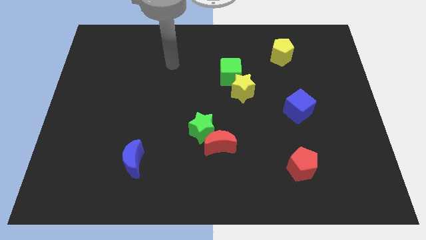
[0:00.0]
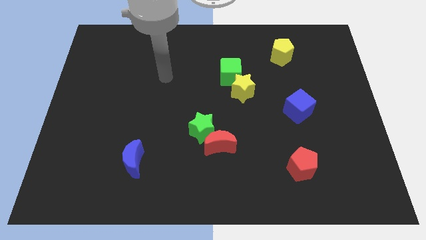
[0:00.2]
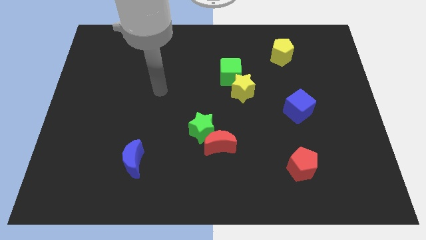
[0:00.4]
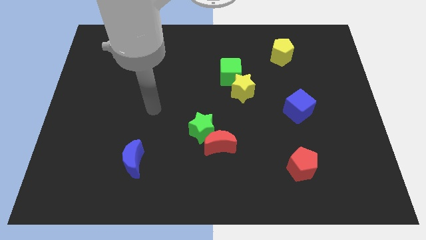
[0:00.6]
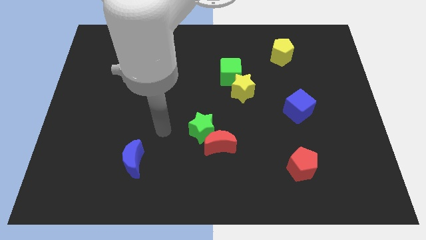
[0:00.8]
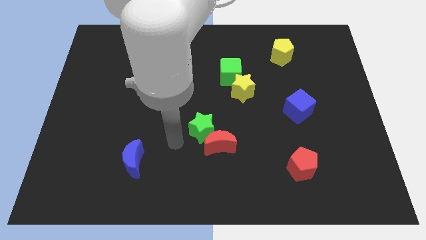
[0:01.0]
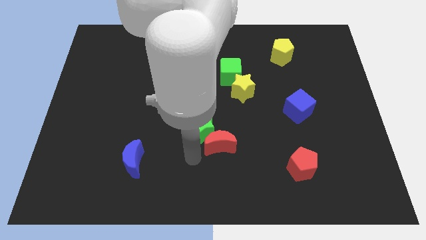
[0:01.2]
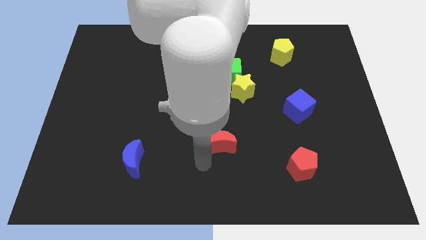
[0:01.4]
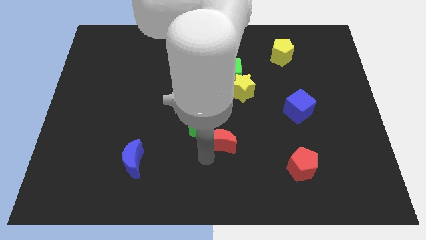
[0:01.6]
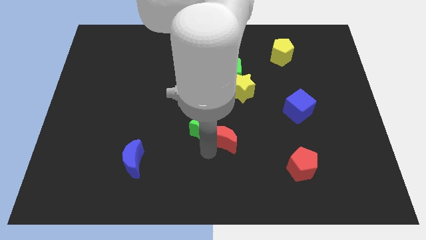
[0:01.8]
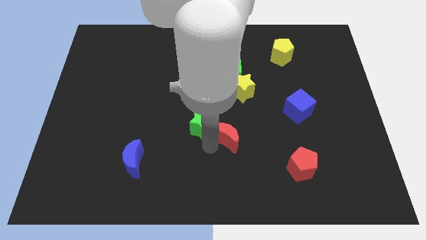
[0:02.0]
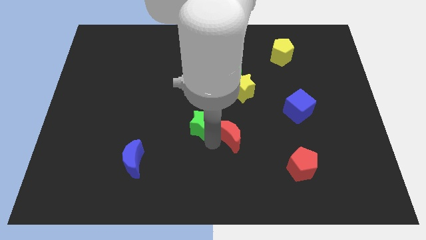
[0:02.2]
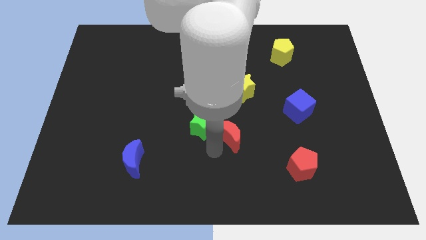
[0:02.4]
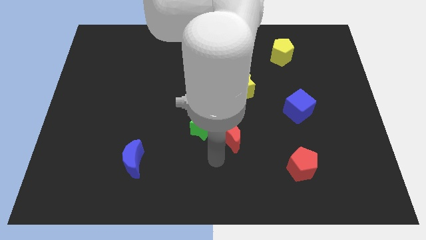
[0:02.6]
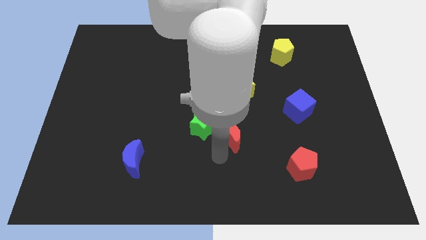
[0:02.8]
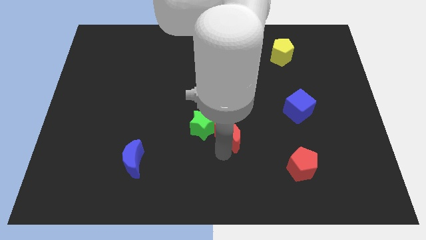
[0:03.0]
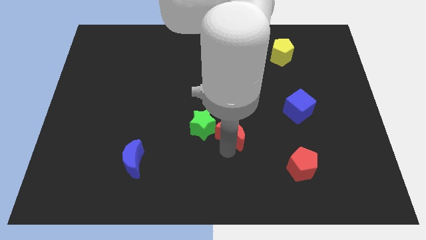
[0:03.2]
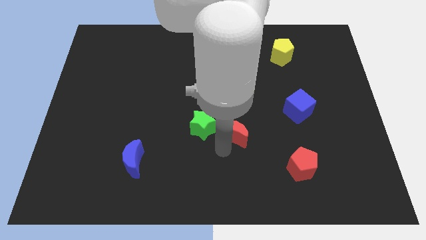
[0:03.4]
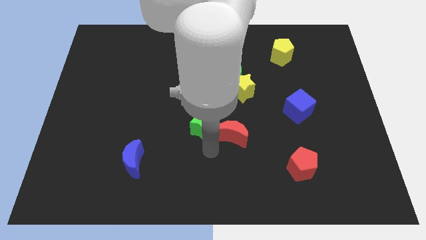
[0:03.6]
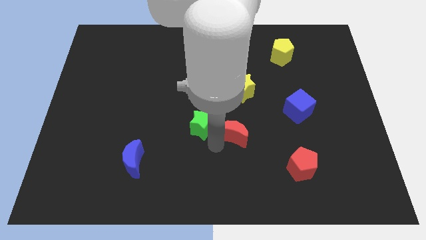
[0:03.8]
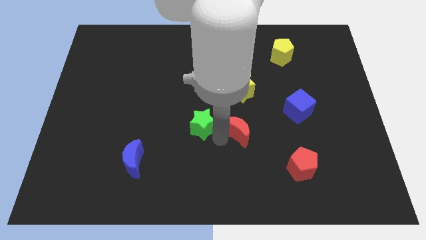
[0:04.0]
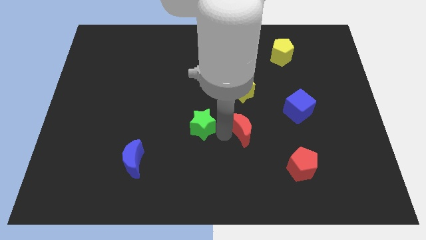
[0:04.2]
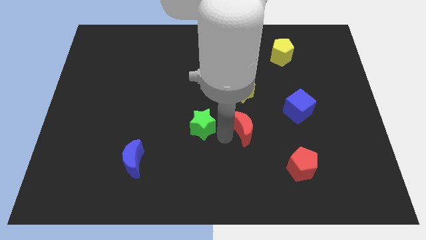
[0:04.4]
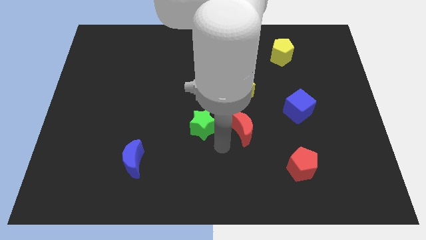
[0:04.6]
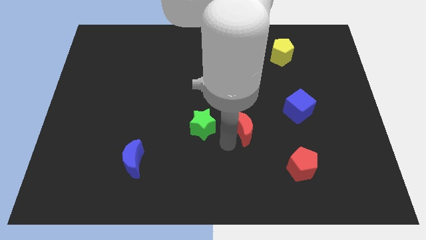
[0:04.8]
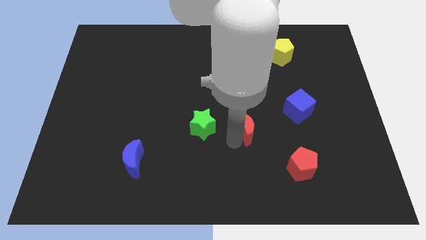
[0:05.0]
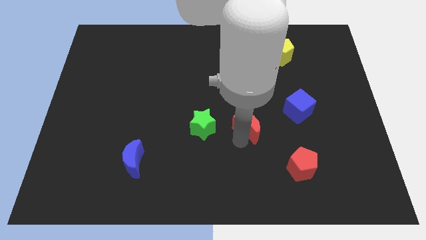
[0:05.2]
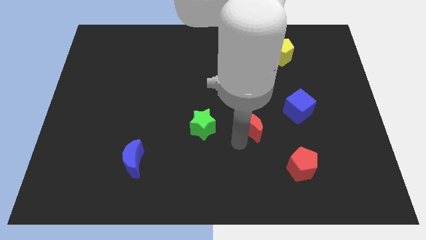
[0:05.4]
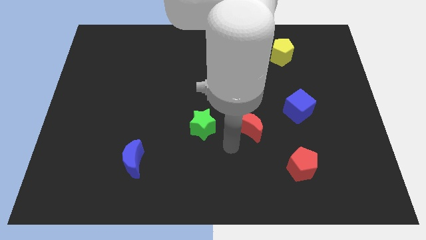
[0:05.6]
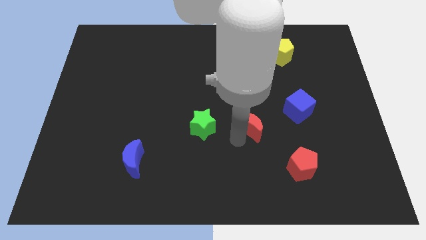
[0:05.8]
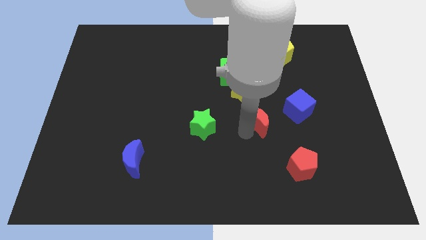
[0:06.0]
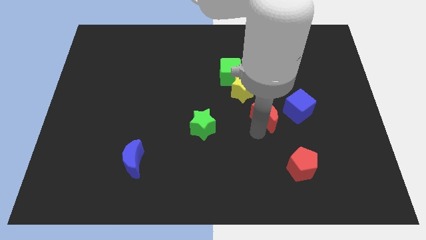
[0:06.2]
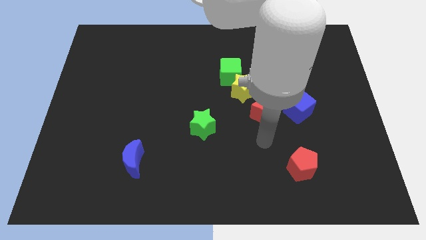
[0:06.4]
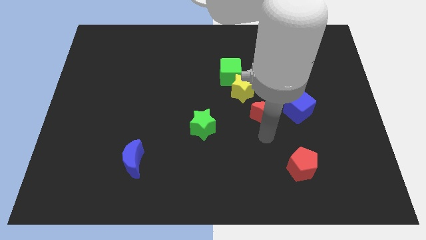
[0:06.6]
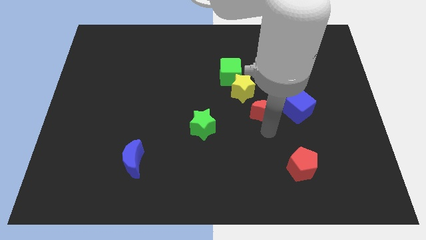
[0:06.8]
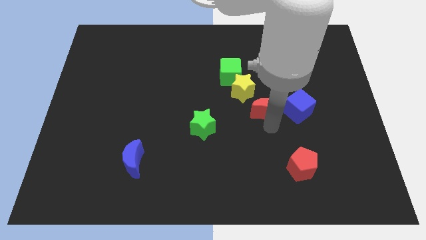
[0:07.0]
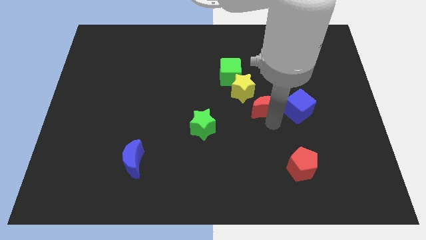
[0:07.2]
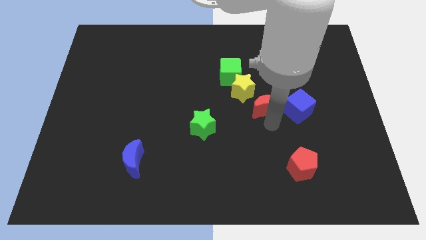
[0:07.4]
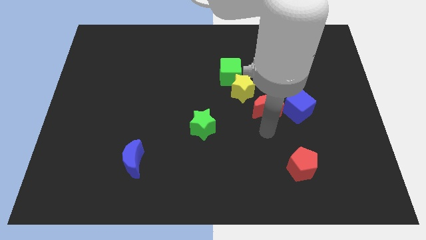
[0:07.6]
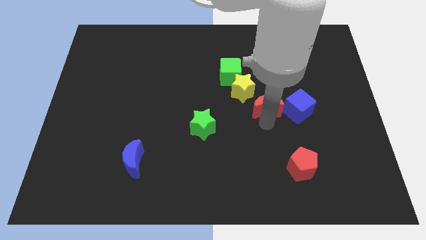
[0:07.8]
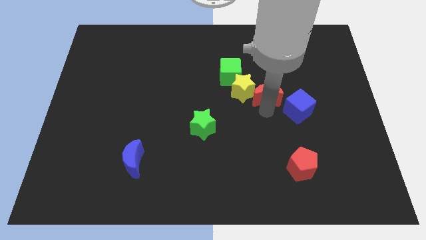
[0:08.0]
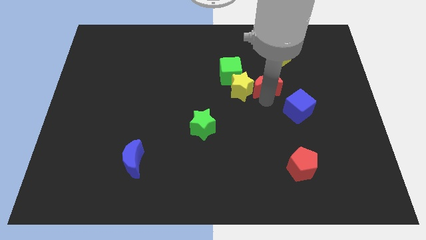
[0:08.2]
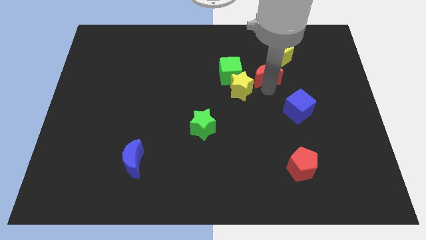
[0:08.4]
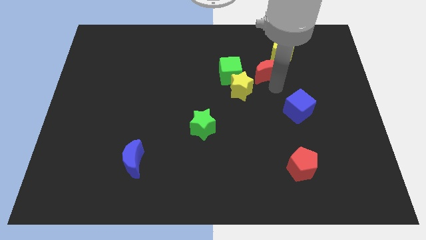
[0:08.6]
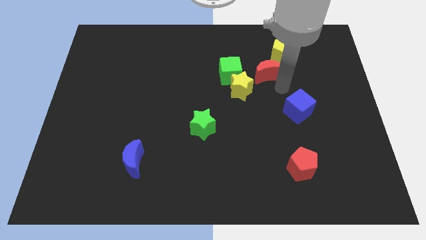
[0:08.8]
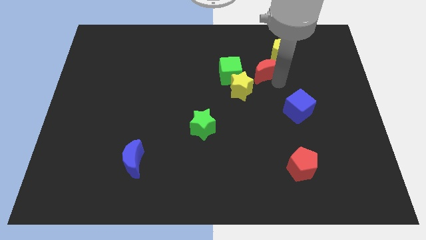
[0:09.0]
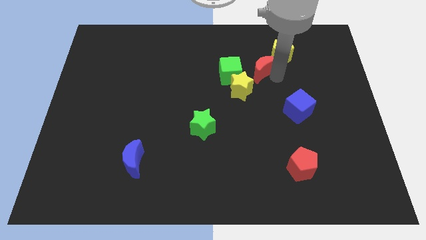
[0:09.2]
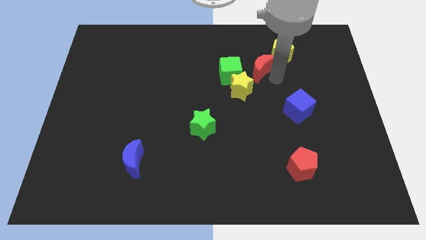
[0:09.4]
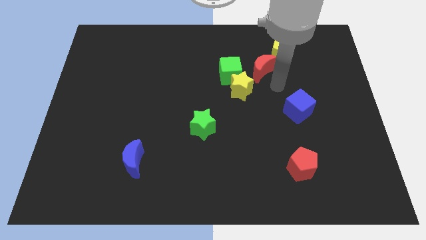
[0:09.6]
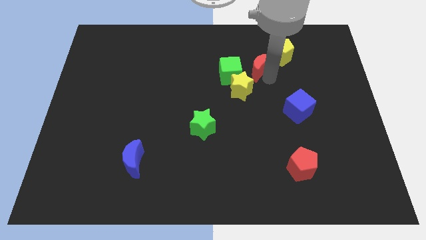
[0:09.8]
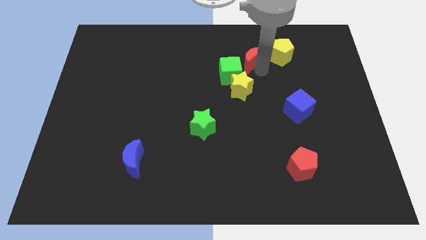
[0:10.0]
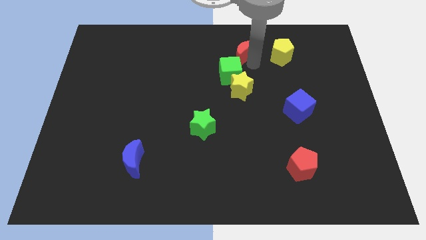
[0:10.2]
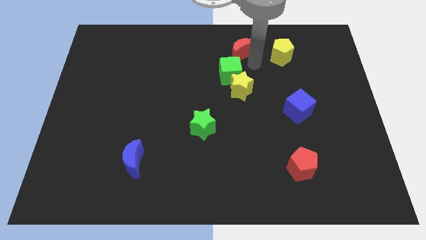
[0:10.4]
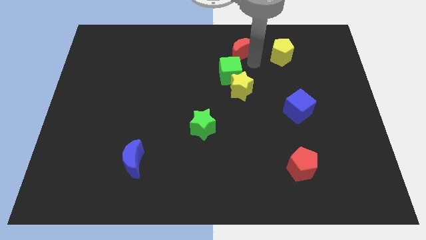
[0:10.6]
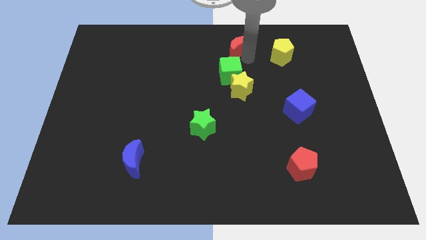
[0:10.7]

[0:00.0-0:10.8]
put the red moon to the towards your base
